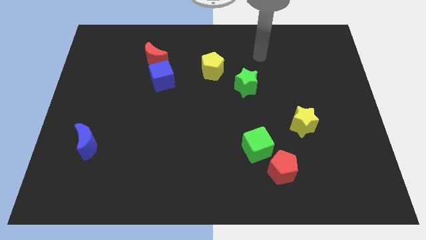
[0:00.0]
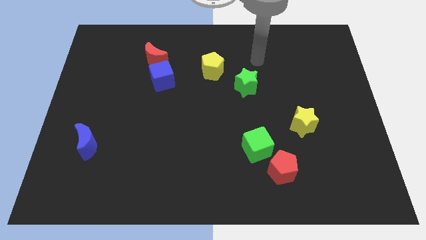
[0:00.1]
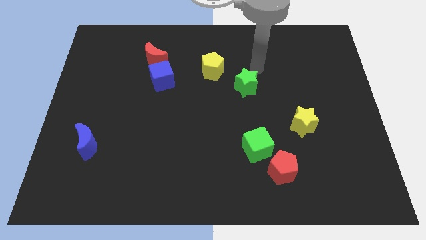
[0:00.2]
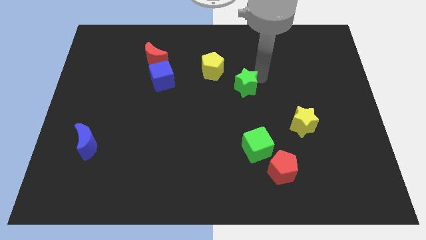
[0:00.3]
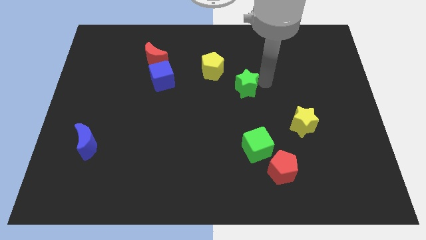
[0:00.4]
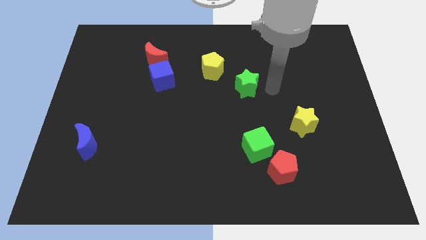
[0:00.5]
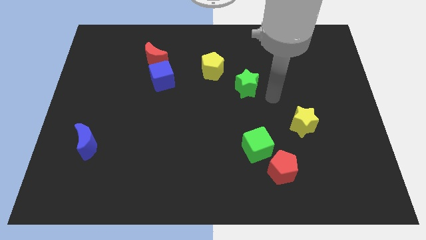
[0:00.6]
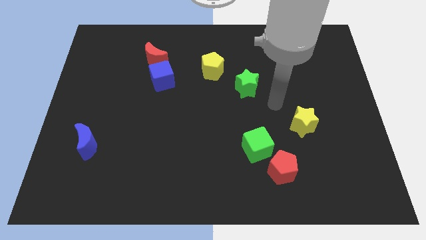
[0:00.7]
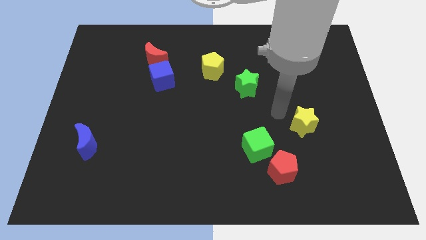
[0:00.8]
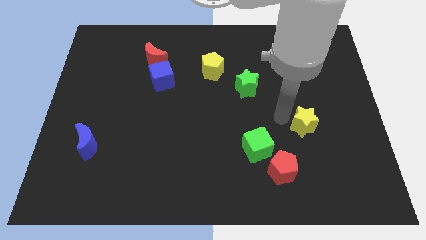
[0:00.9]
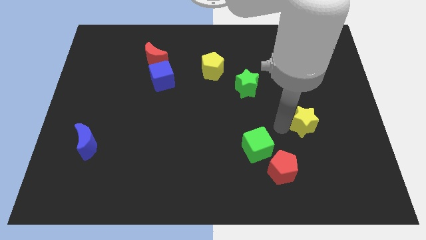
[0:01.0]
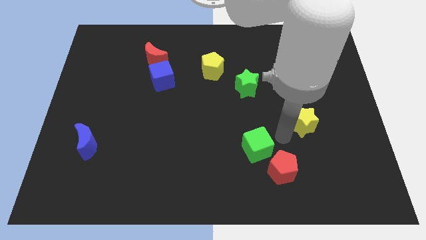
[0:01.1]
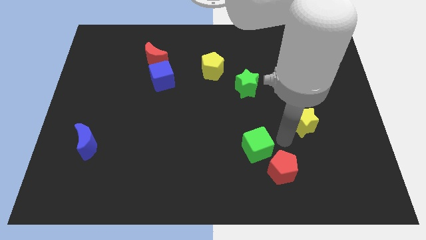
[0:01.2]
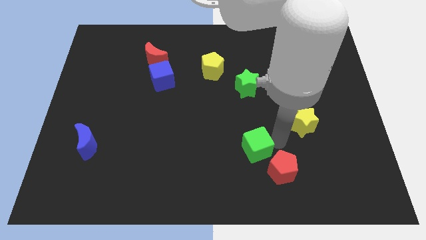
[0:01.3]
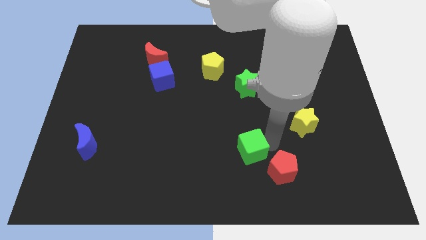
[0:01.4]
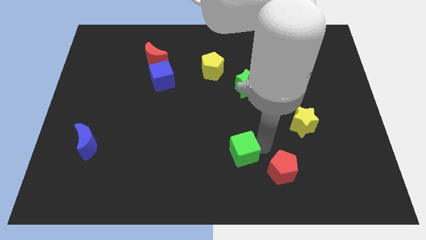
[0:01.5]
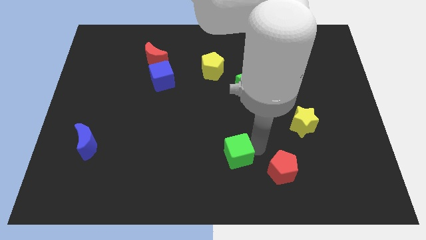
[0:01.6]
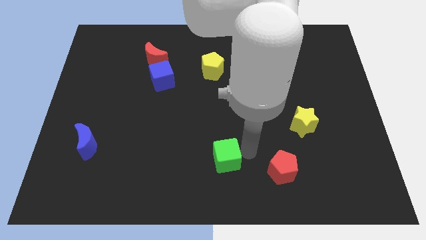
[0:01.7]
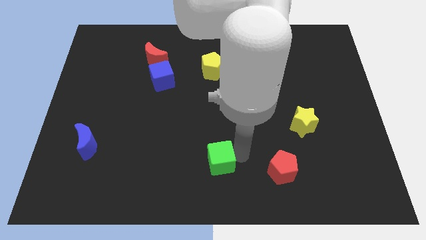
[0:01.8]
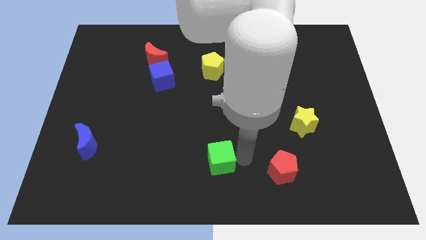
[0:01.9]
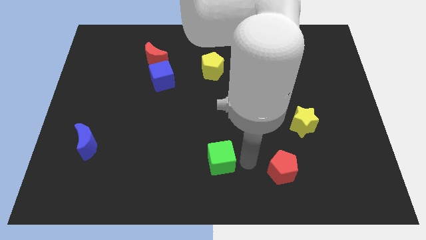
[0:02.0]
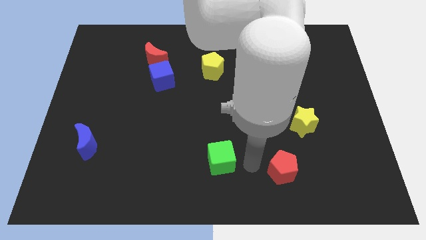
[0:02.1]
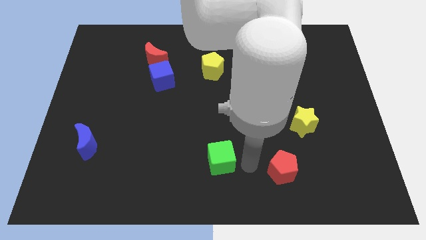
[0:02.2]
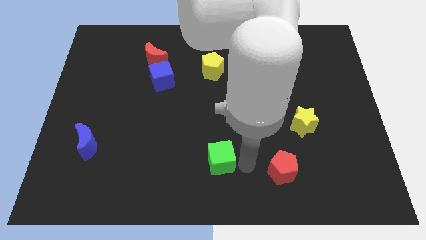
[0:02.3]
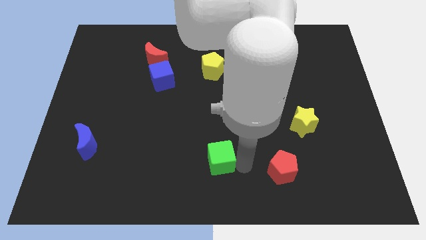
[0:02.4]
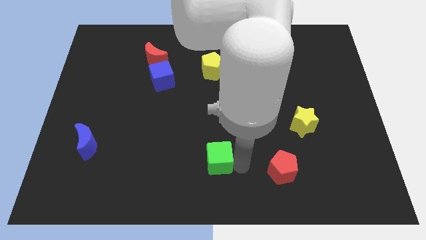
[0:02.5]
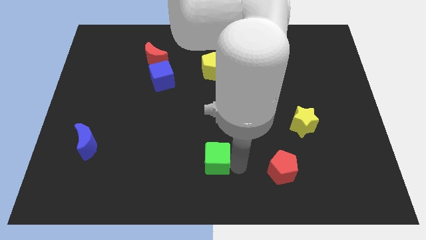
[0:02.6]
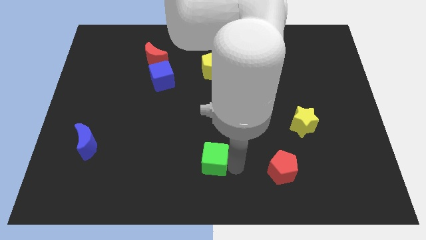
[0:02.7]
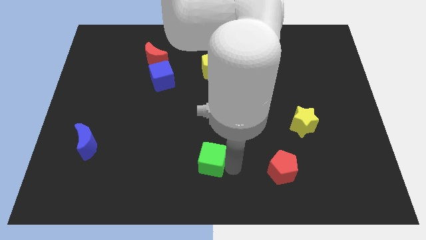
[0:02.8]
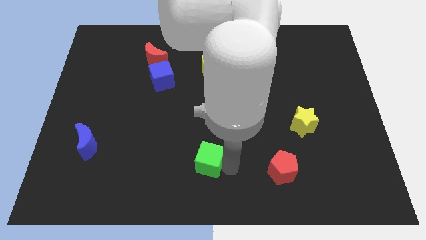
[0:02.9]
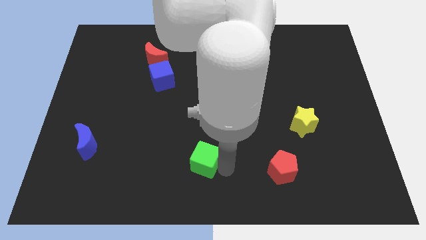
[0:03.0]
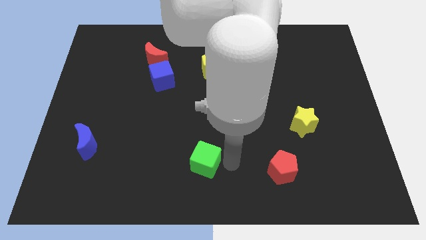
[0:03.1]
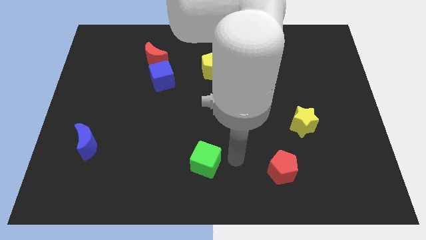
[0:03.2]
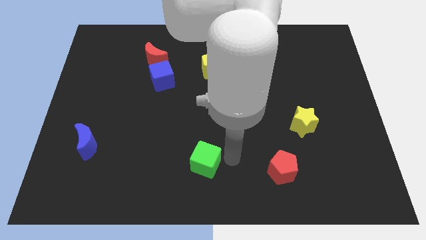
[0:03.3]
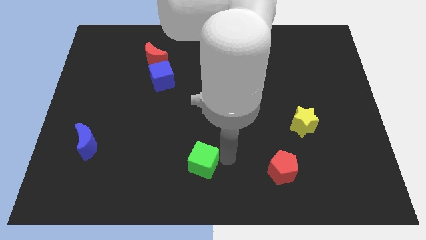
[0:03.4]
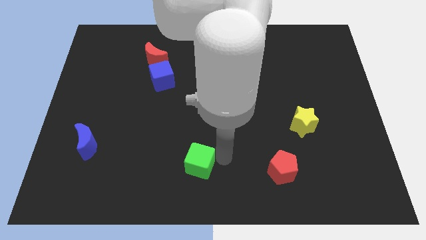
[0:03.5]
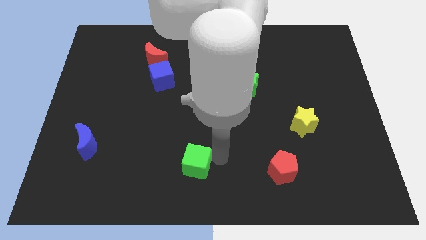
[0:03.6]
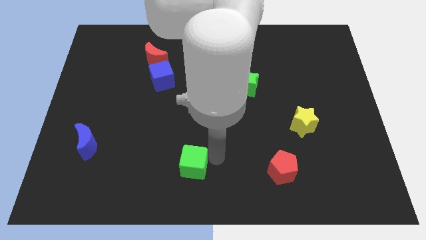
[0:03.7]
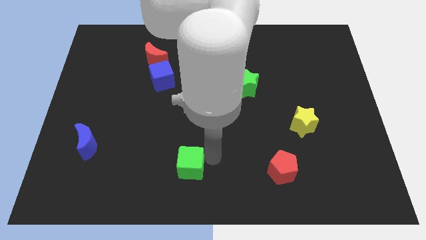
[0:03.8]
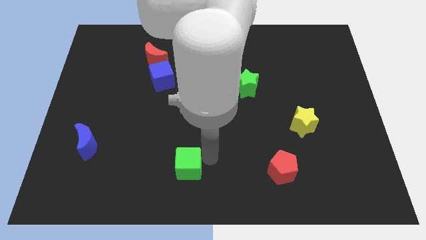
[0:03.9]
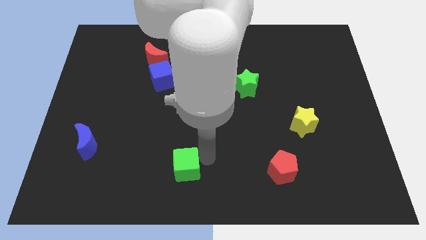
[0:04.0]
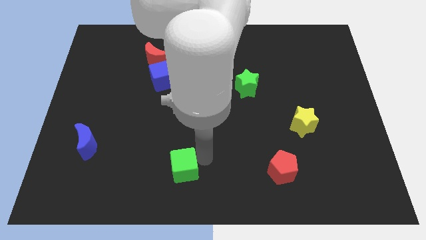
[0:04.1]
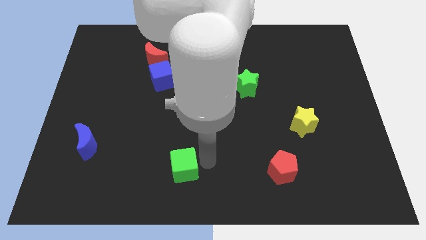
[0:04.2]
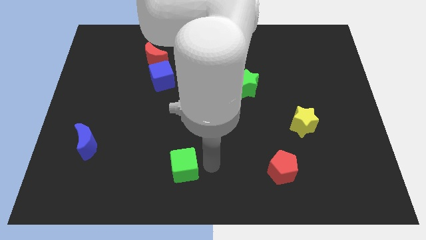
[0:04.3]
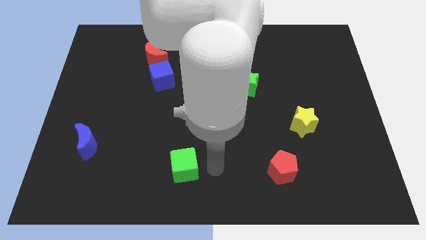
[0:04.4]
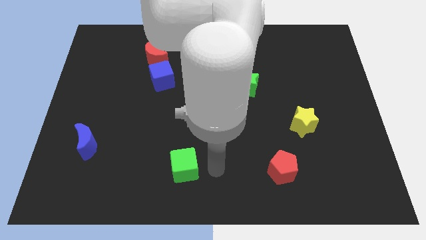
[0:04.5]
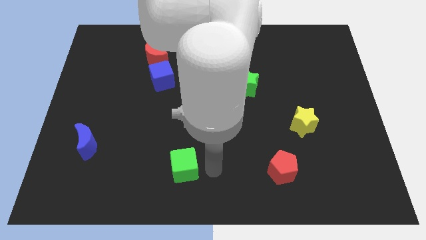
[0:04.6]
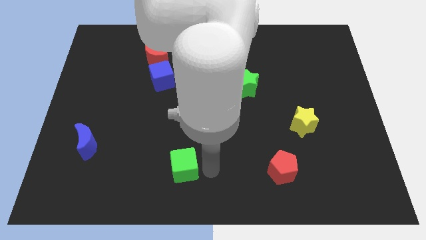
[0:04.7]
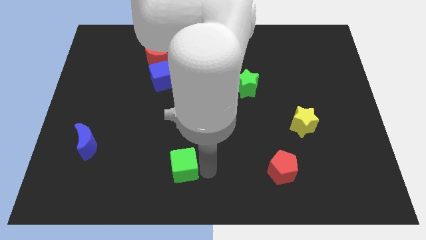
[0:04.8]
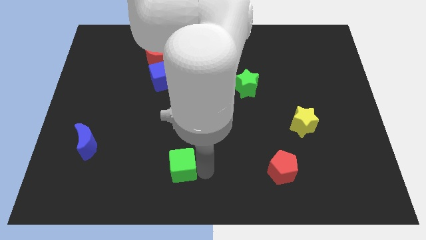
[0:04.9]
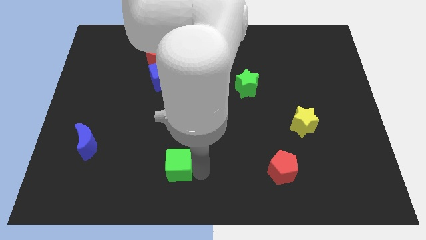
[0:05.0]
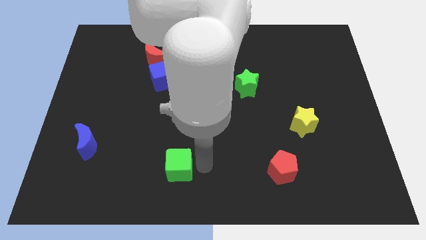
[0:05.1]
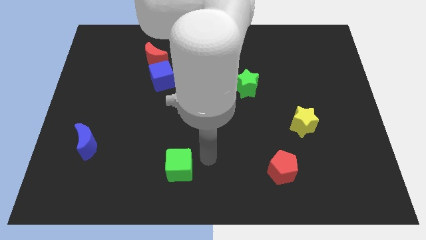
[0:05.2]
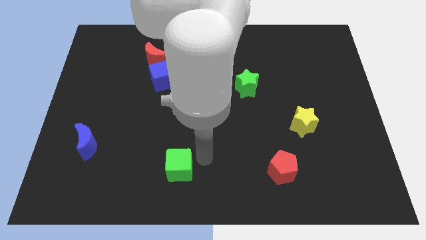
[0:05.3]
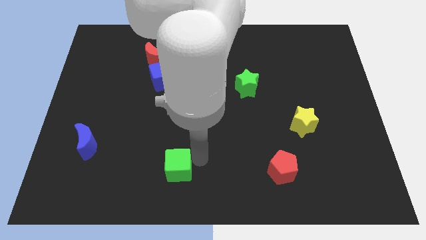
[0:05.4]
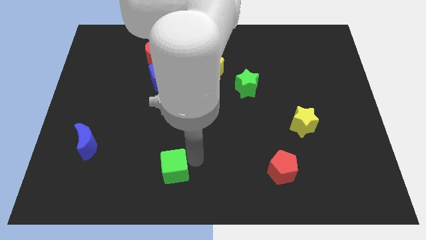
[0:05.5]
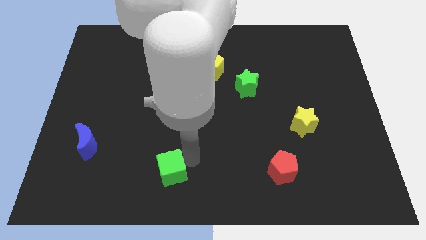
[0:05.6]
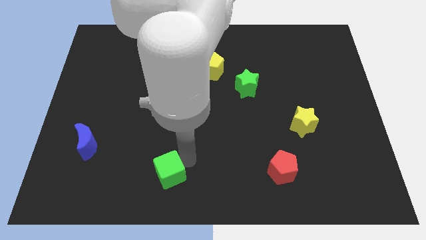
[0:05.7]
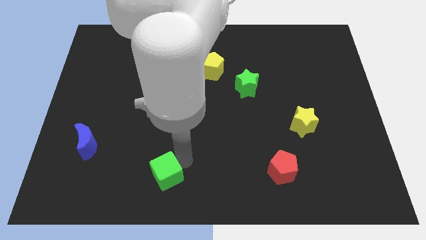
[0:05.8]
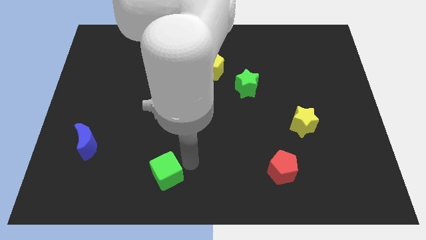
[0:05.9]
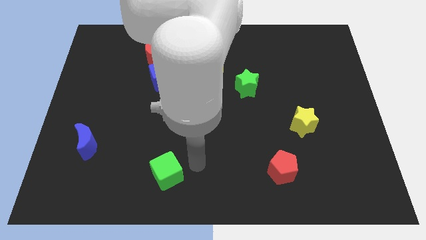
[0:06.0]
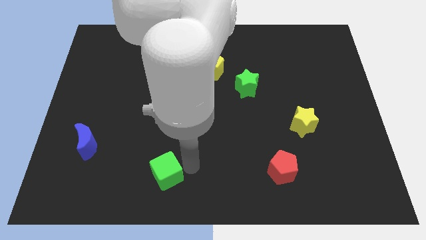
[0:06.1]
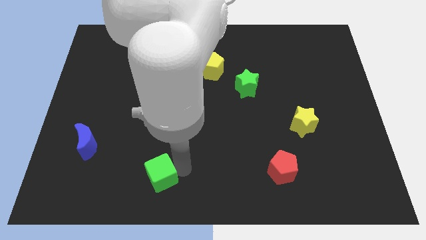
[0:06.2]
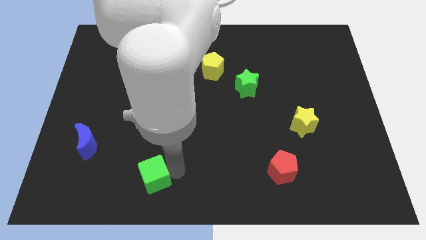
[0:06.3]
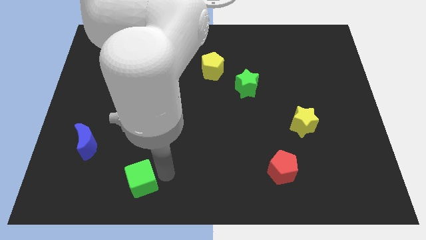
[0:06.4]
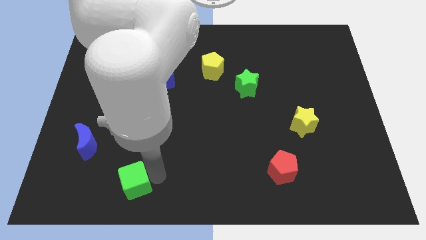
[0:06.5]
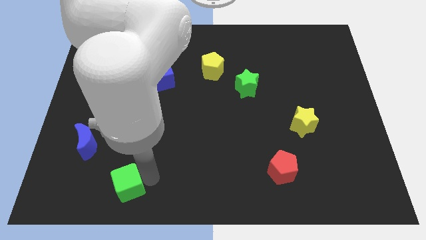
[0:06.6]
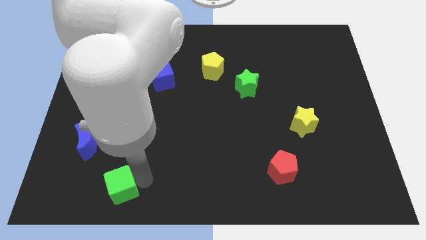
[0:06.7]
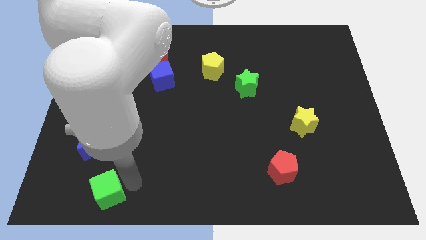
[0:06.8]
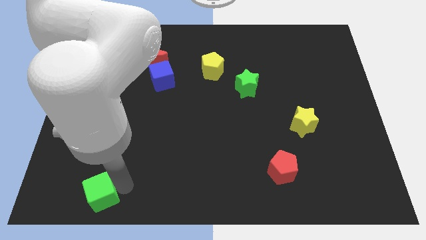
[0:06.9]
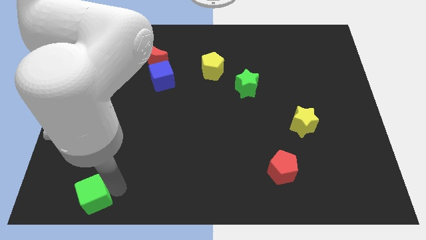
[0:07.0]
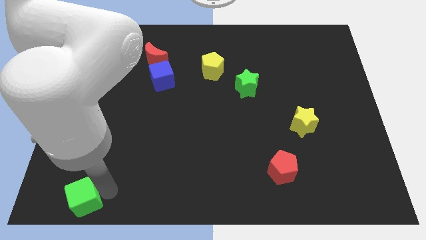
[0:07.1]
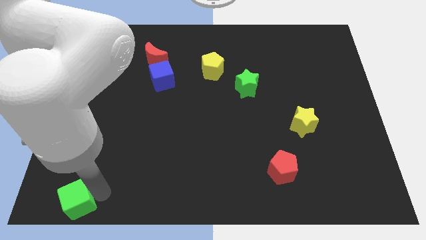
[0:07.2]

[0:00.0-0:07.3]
slide the green cube to the lower left corner
